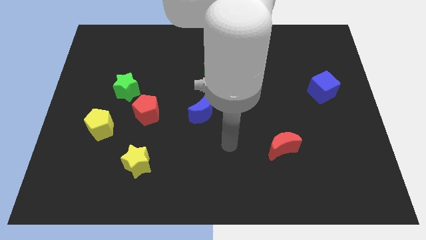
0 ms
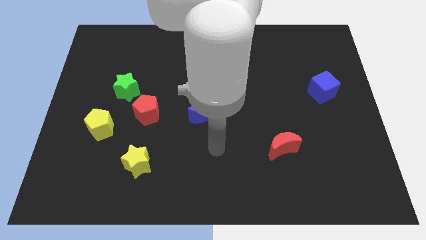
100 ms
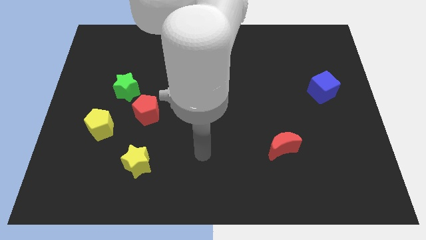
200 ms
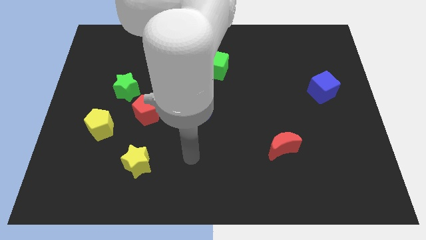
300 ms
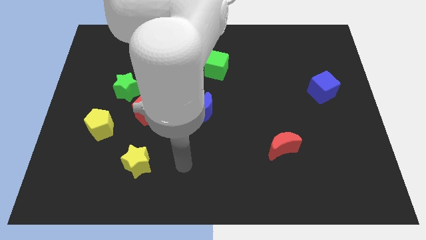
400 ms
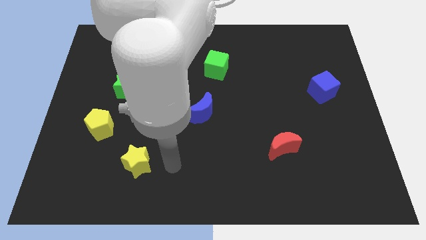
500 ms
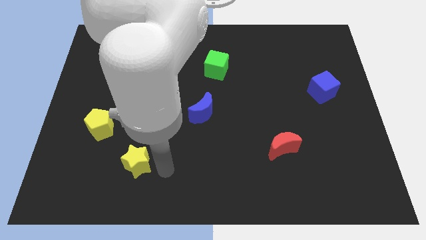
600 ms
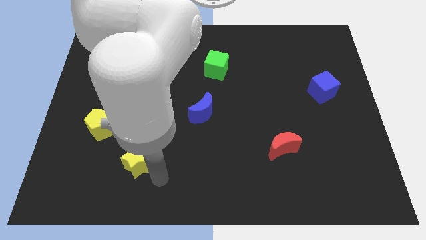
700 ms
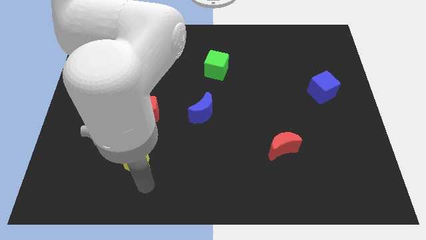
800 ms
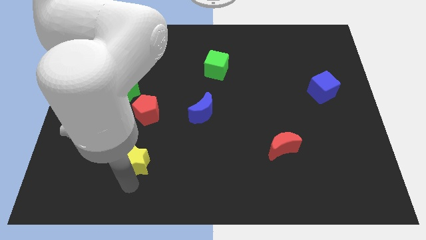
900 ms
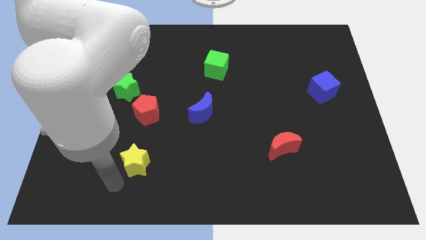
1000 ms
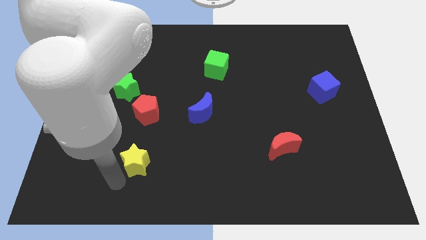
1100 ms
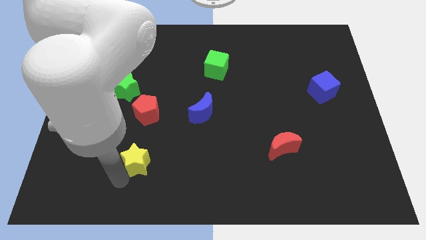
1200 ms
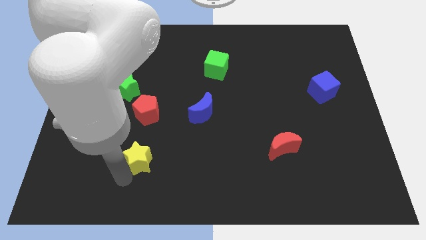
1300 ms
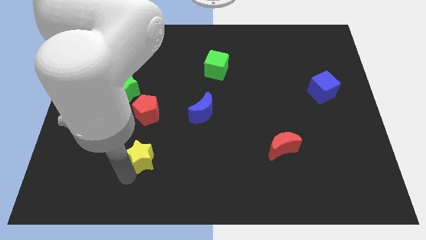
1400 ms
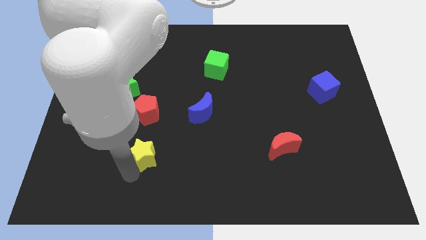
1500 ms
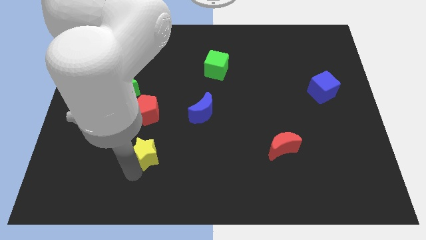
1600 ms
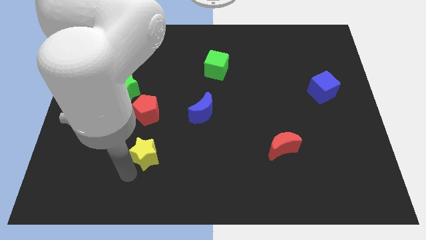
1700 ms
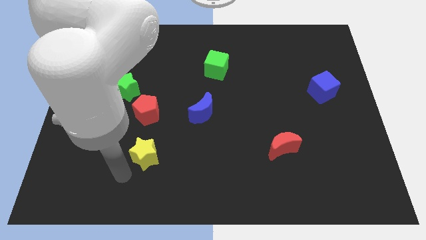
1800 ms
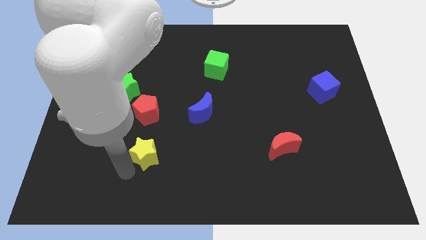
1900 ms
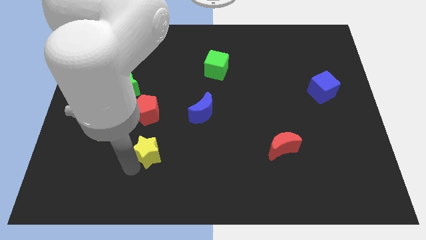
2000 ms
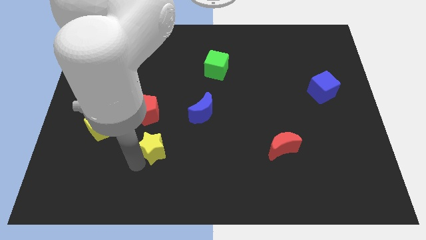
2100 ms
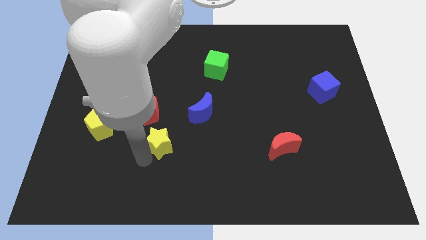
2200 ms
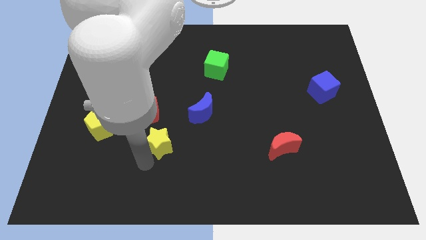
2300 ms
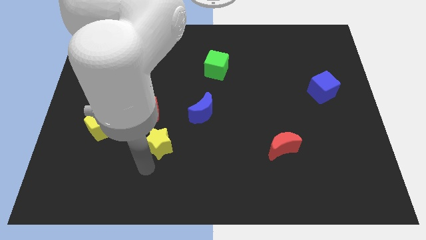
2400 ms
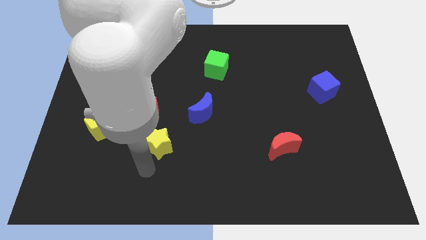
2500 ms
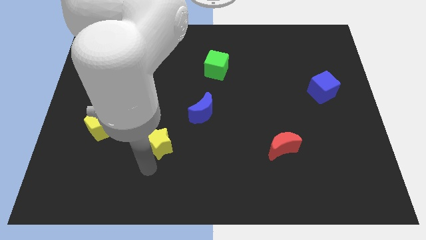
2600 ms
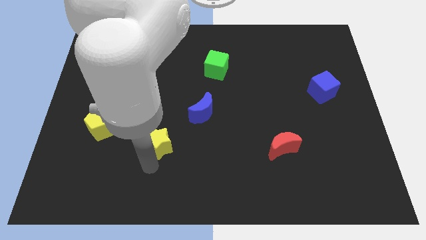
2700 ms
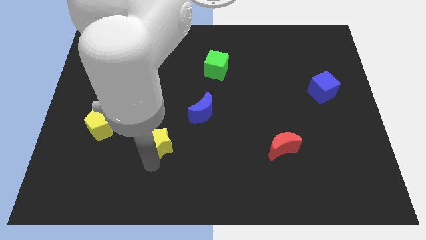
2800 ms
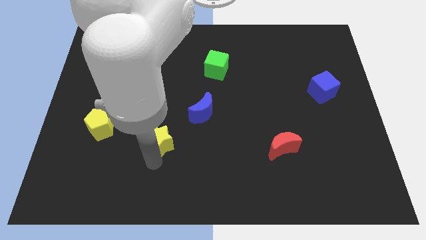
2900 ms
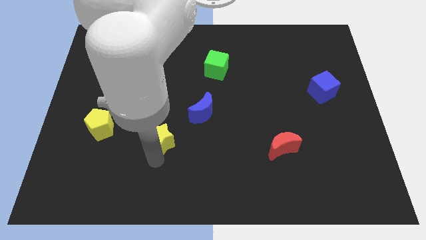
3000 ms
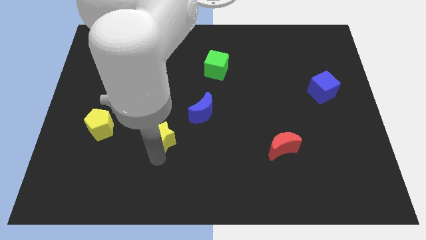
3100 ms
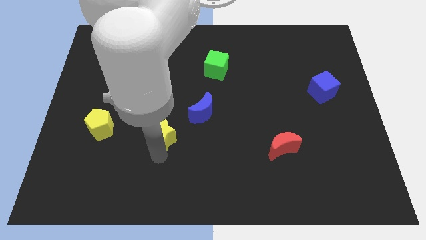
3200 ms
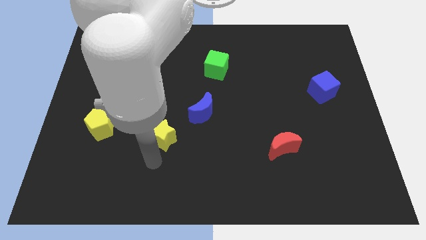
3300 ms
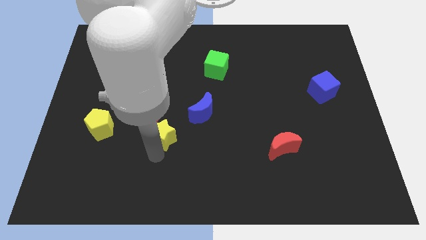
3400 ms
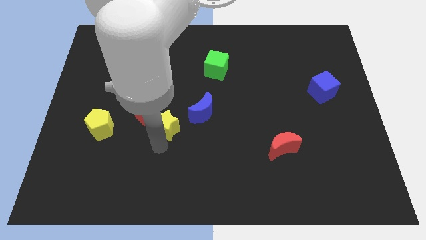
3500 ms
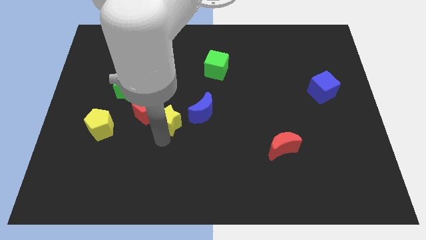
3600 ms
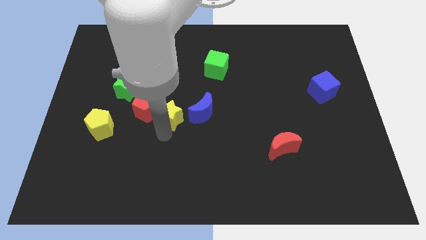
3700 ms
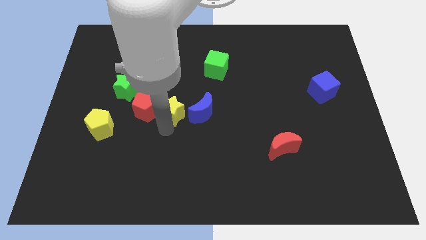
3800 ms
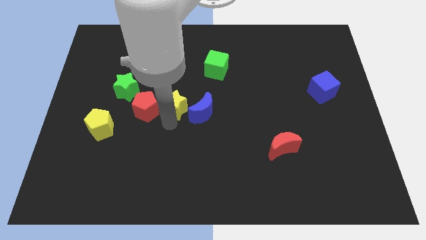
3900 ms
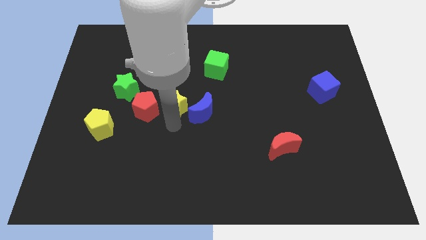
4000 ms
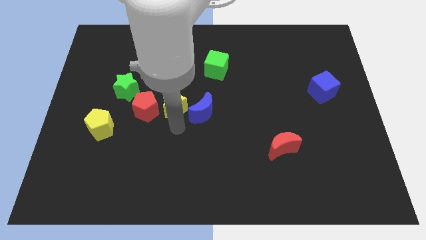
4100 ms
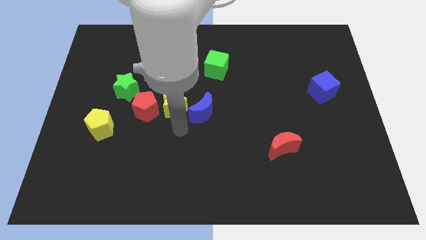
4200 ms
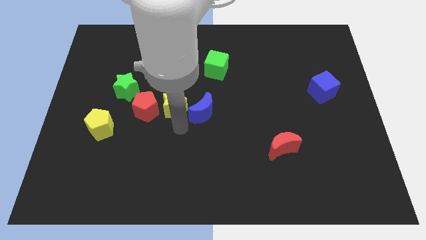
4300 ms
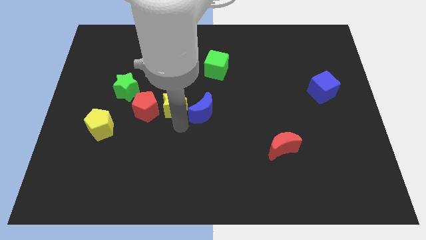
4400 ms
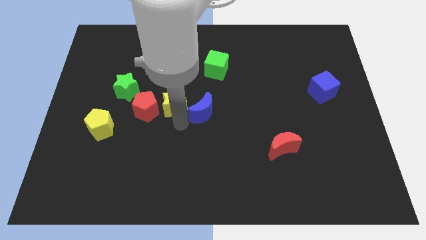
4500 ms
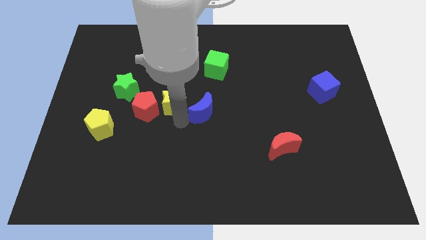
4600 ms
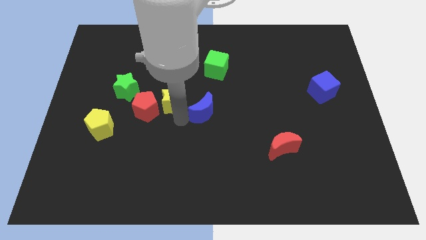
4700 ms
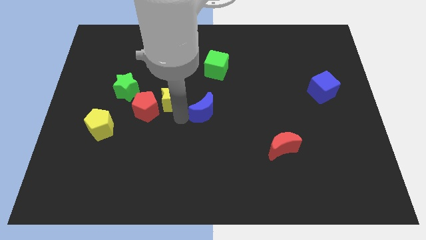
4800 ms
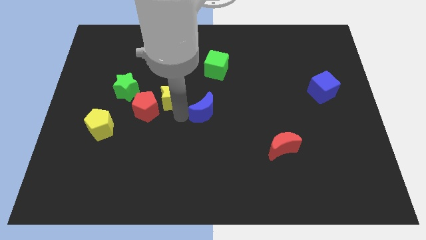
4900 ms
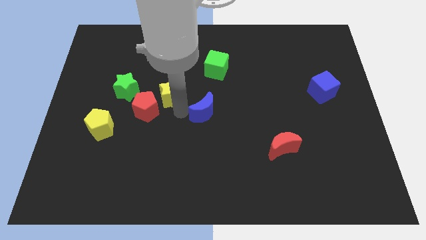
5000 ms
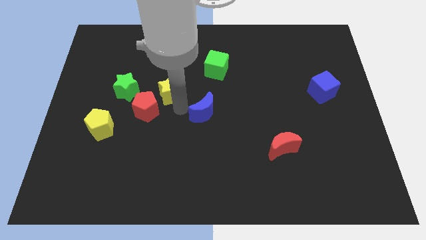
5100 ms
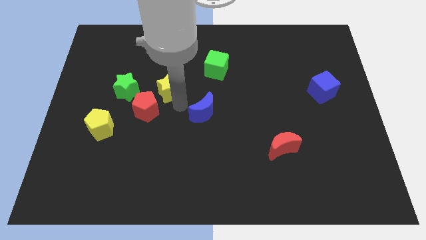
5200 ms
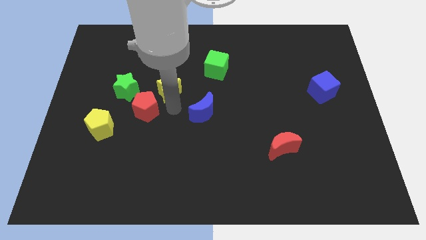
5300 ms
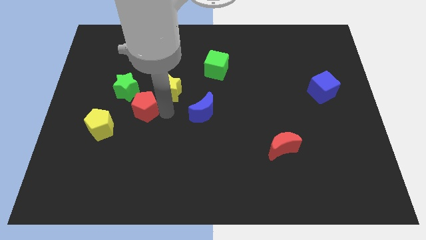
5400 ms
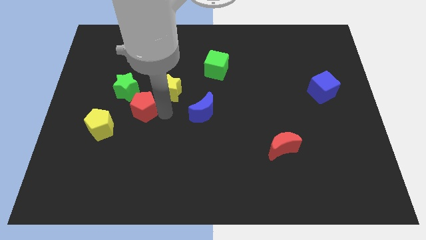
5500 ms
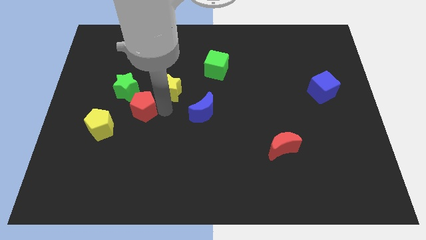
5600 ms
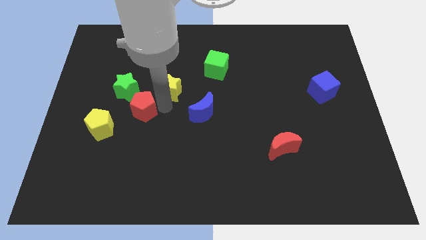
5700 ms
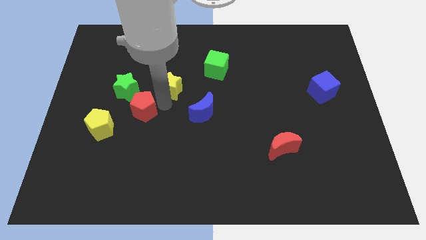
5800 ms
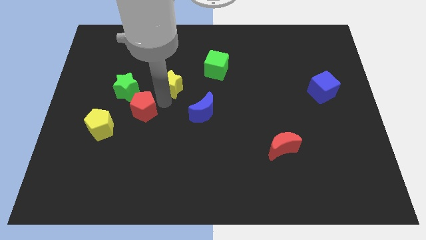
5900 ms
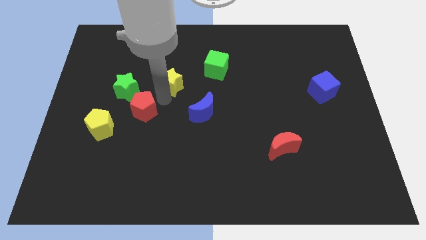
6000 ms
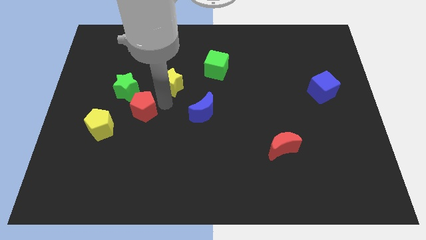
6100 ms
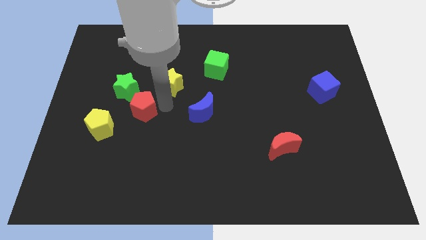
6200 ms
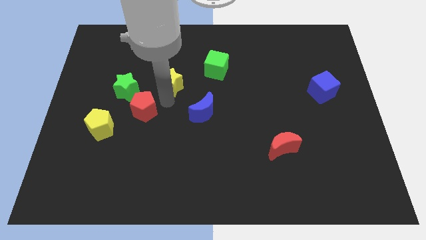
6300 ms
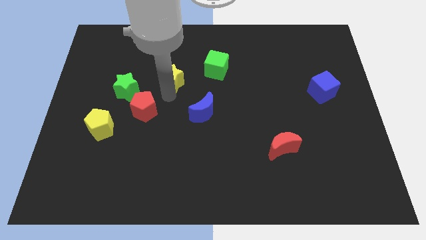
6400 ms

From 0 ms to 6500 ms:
push the yellow star just left of the green cube

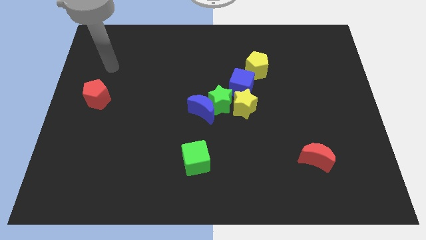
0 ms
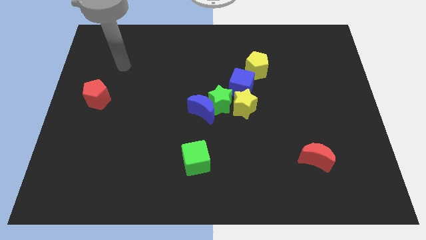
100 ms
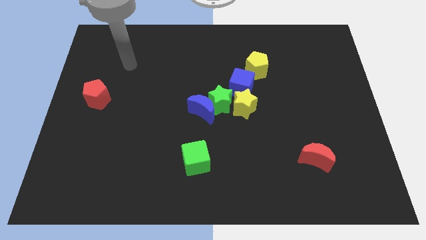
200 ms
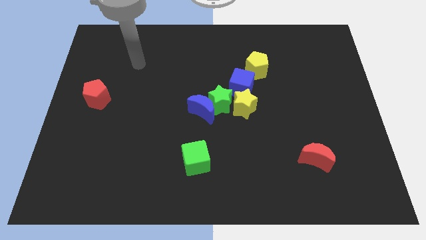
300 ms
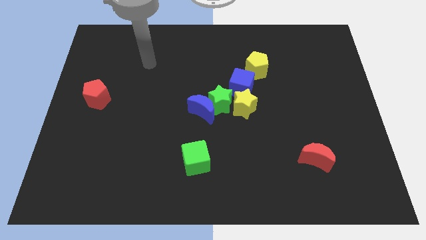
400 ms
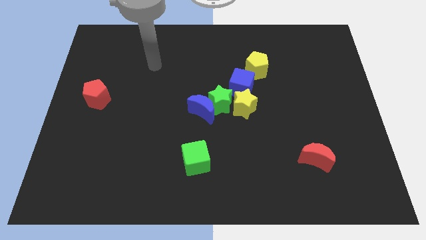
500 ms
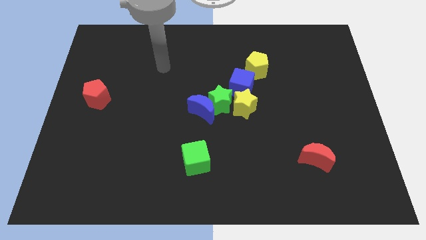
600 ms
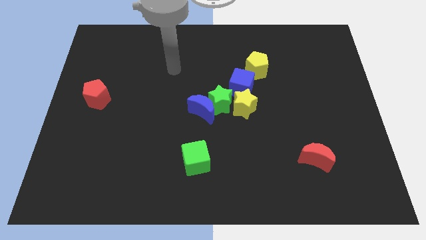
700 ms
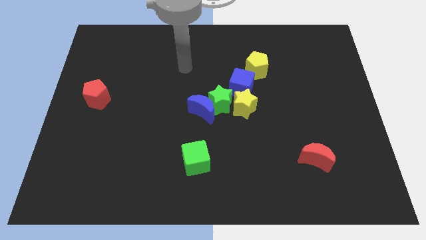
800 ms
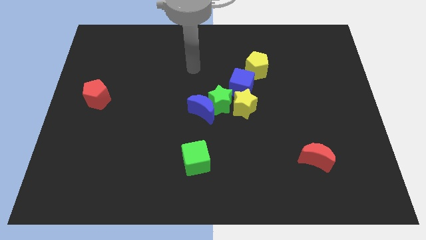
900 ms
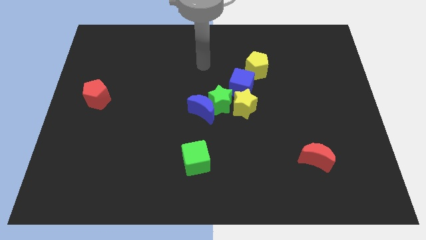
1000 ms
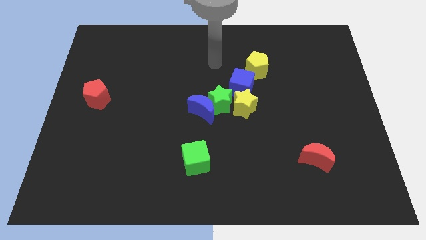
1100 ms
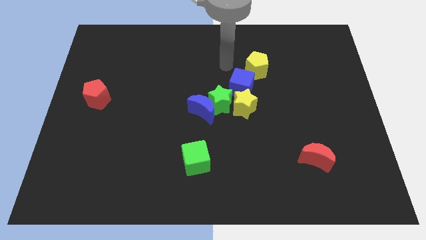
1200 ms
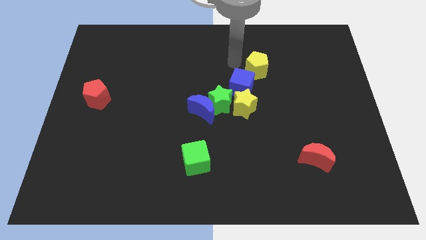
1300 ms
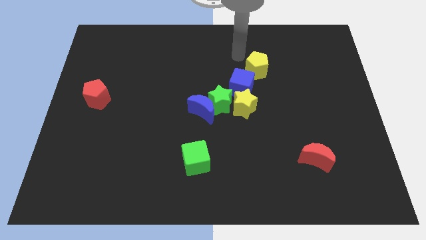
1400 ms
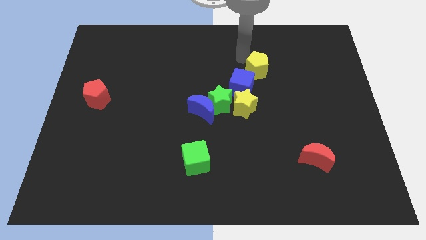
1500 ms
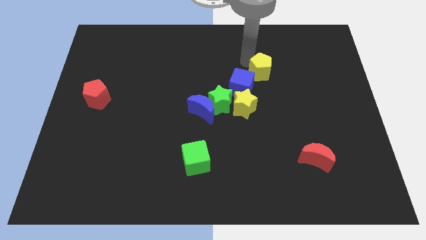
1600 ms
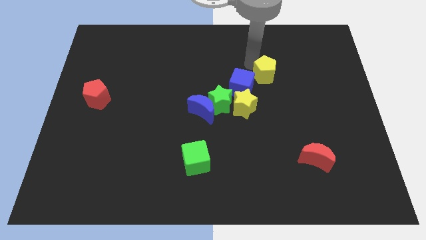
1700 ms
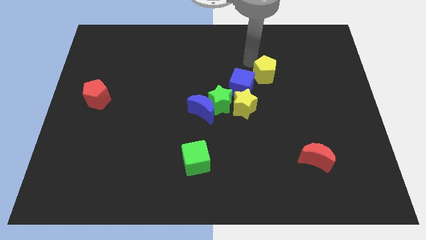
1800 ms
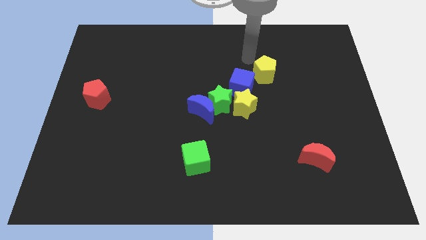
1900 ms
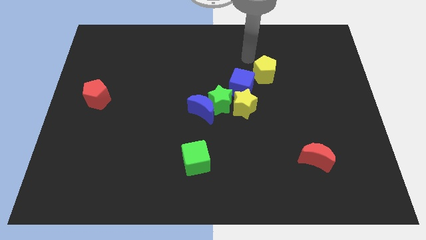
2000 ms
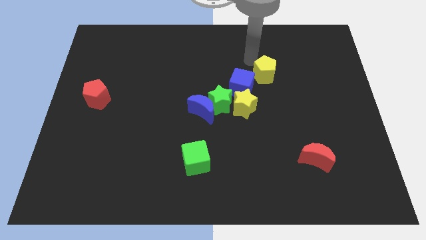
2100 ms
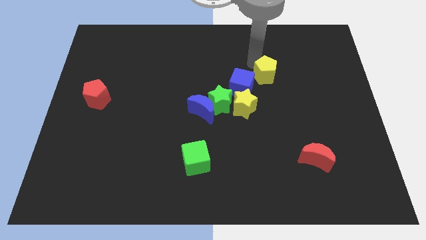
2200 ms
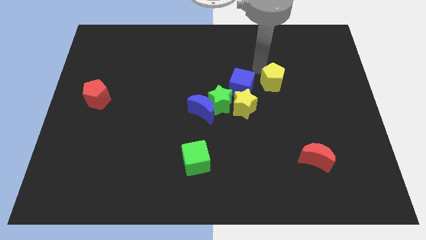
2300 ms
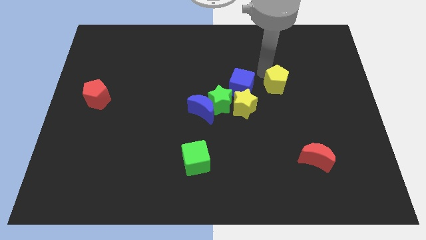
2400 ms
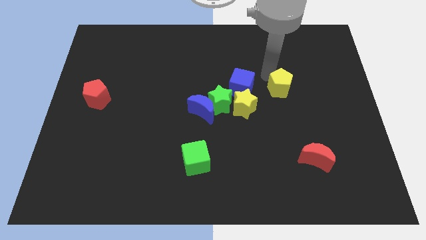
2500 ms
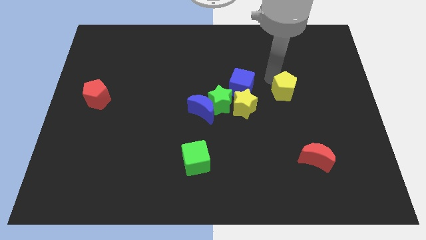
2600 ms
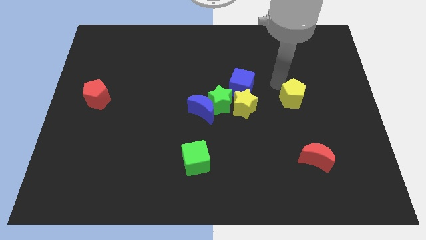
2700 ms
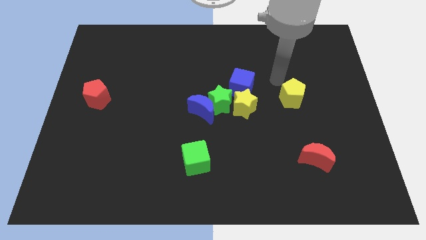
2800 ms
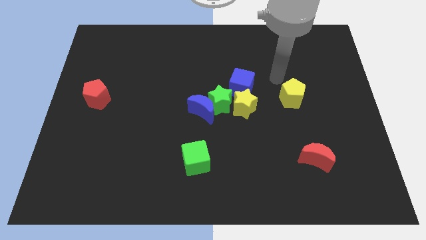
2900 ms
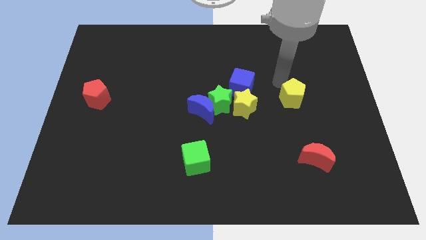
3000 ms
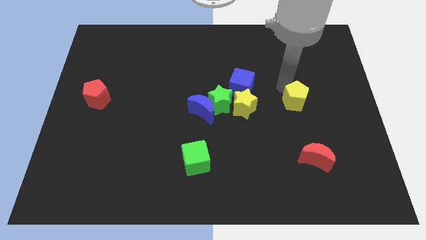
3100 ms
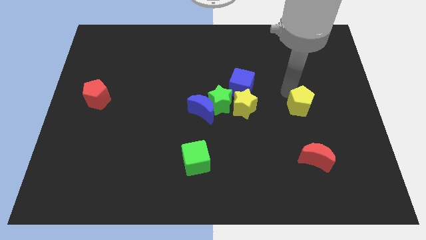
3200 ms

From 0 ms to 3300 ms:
put the yellow pentagon above the red moon
